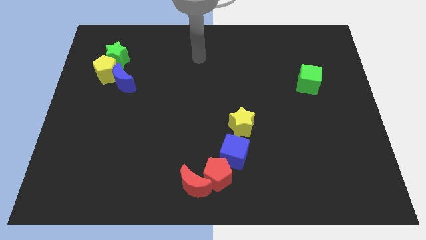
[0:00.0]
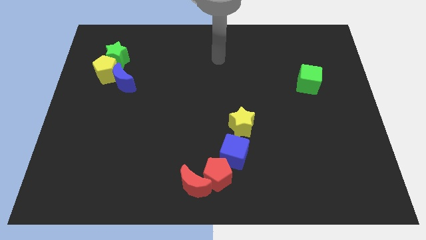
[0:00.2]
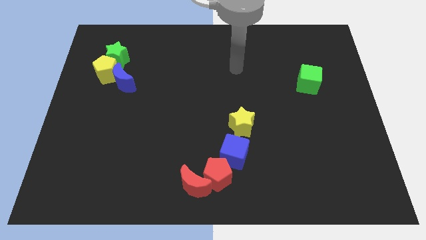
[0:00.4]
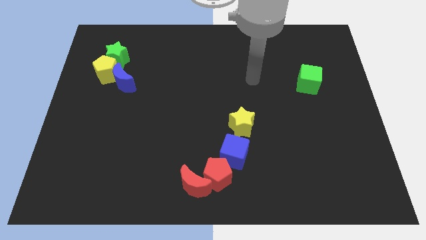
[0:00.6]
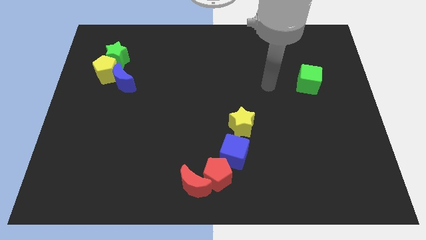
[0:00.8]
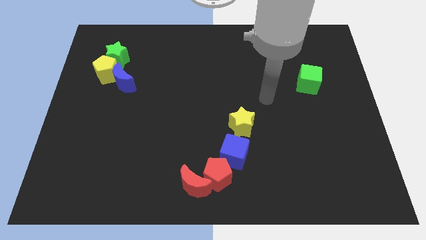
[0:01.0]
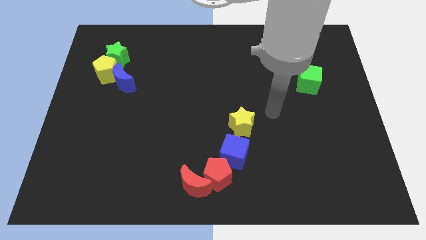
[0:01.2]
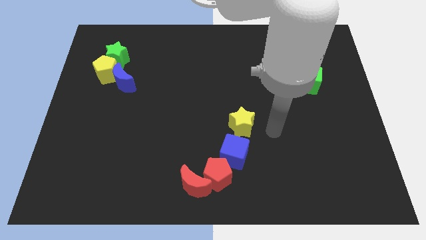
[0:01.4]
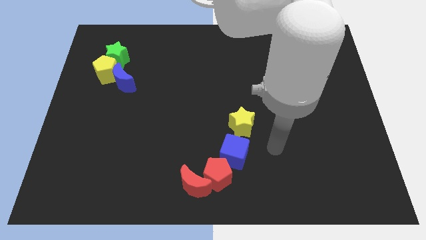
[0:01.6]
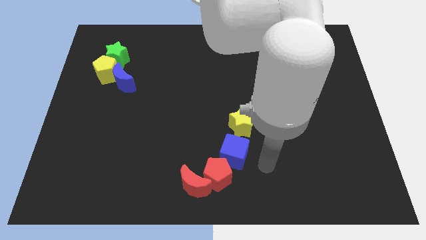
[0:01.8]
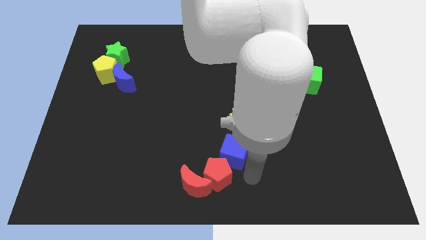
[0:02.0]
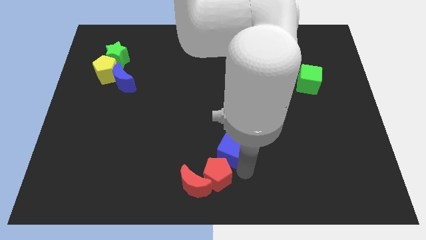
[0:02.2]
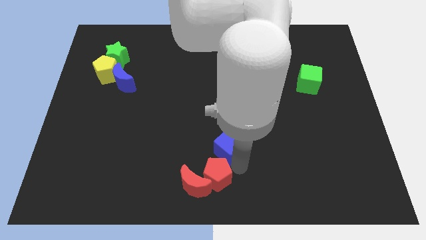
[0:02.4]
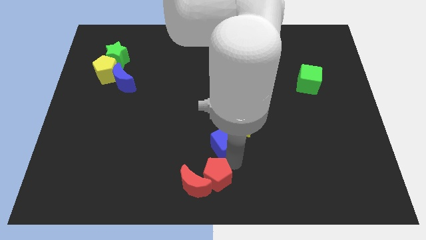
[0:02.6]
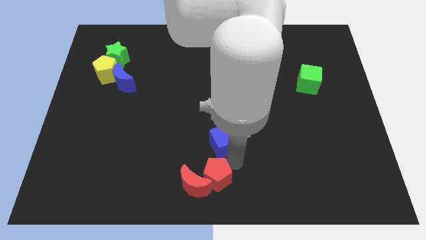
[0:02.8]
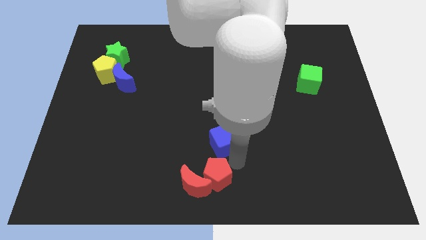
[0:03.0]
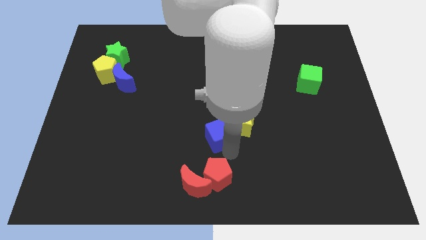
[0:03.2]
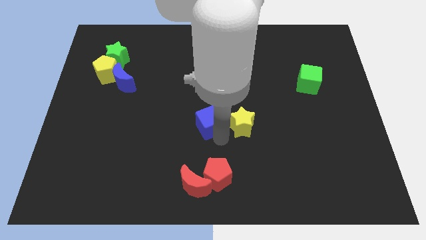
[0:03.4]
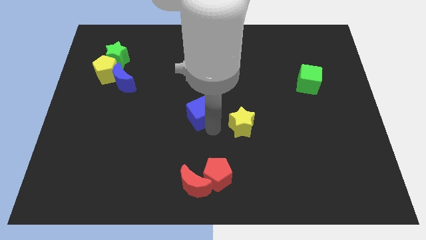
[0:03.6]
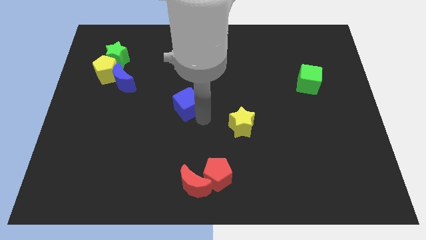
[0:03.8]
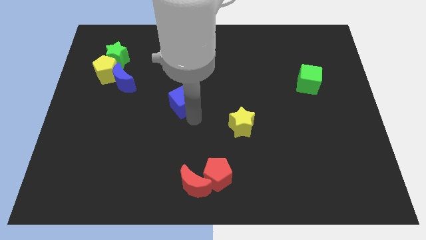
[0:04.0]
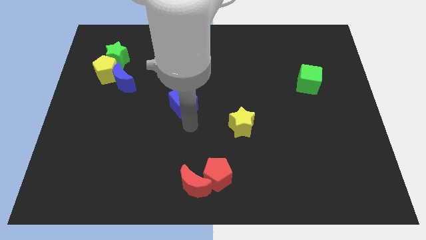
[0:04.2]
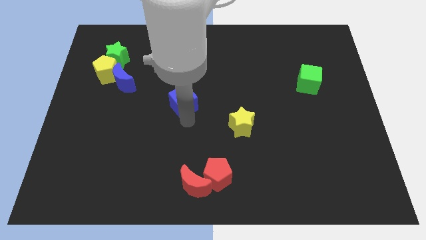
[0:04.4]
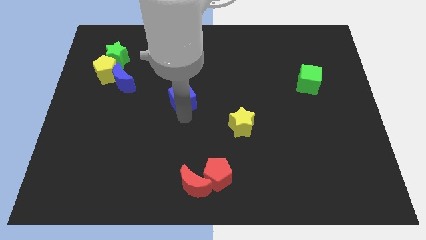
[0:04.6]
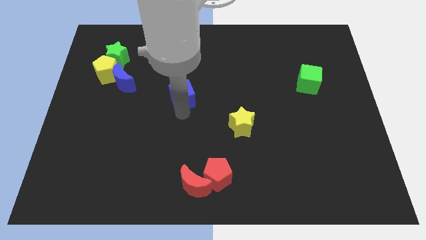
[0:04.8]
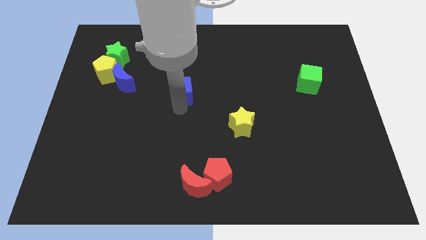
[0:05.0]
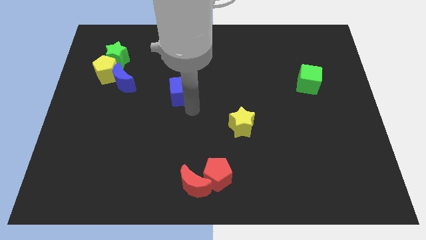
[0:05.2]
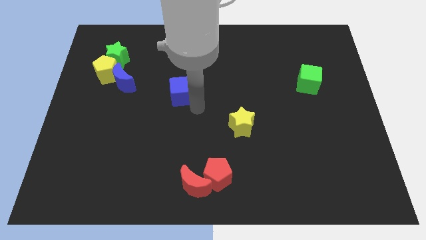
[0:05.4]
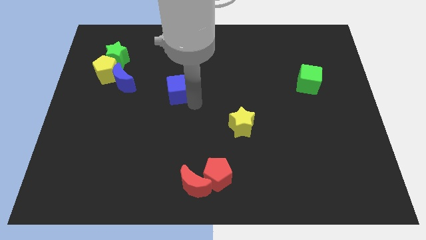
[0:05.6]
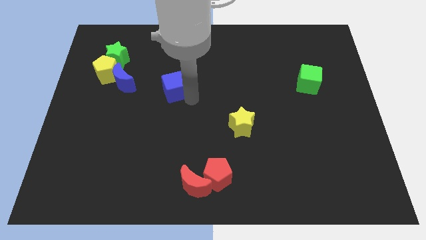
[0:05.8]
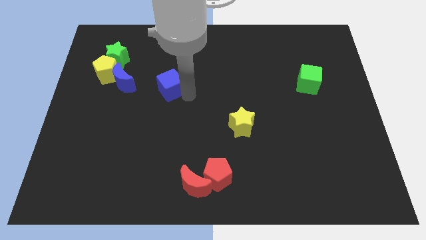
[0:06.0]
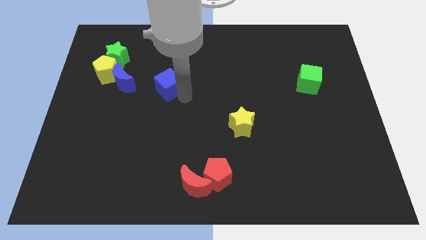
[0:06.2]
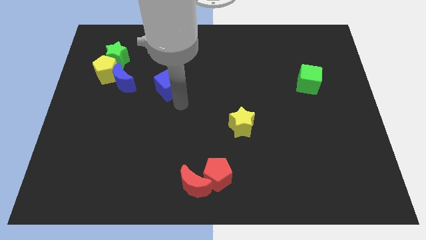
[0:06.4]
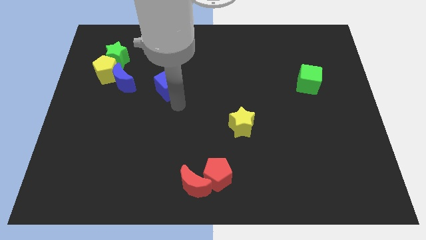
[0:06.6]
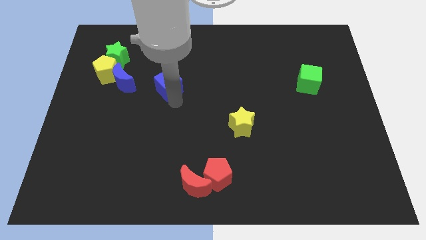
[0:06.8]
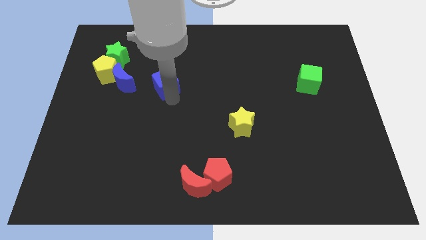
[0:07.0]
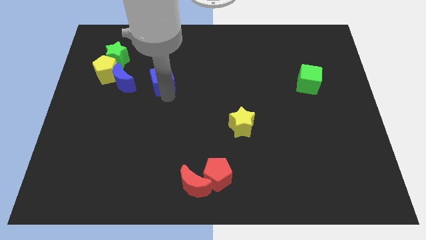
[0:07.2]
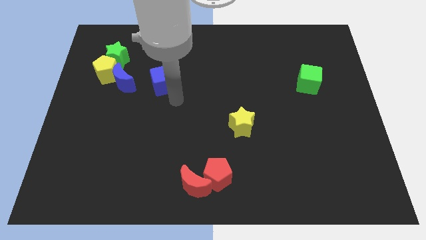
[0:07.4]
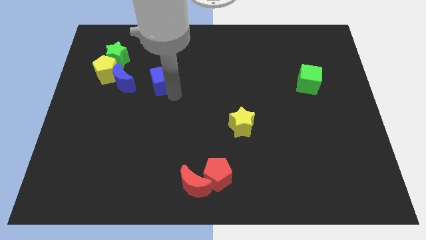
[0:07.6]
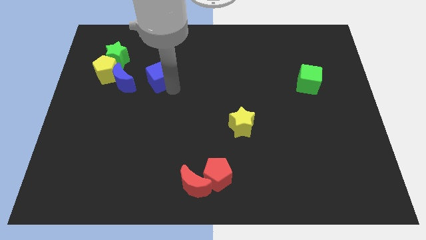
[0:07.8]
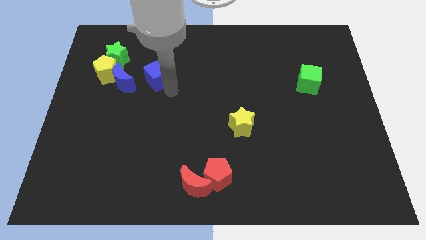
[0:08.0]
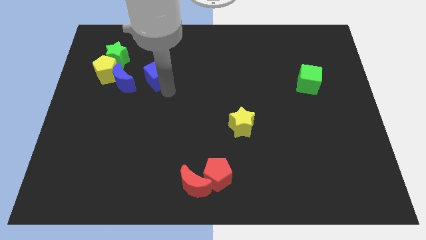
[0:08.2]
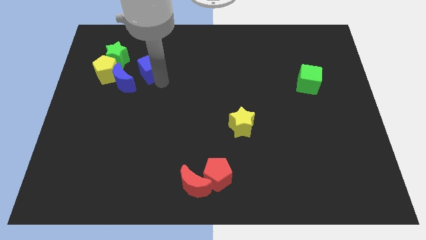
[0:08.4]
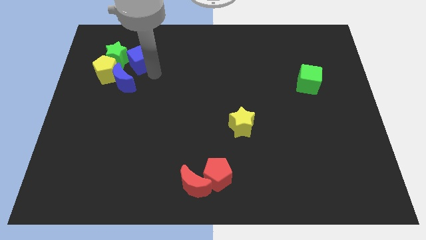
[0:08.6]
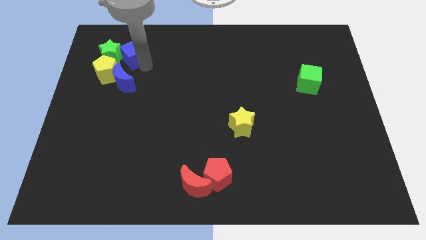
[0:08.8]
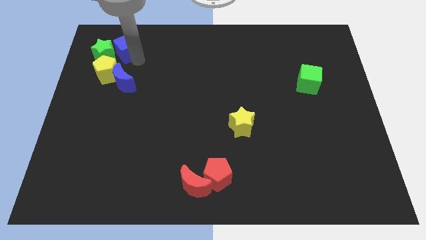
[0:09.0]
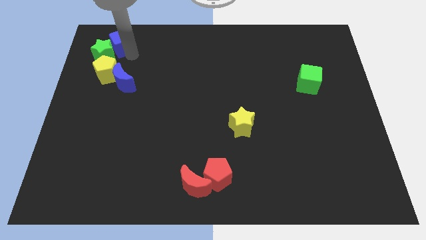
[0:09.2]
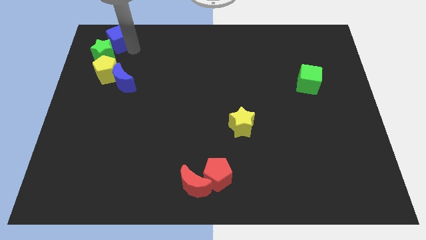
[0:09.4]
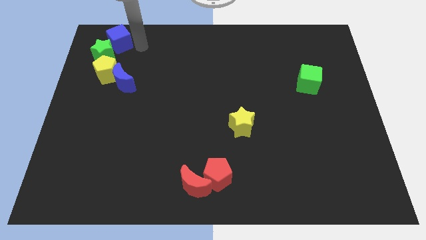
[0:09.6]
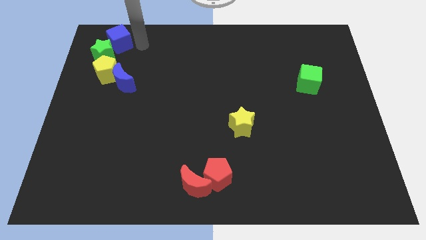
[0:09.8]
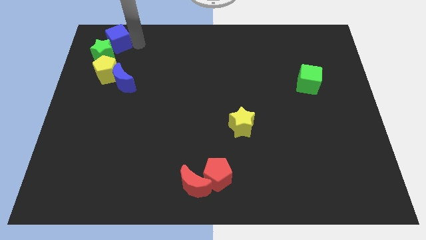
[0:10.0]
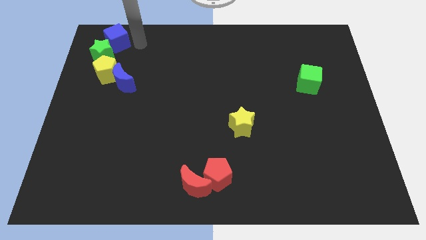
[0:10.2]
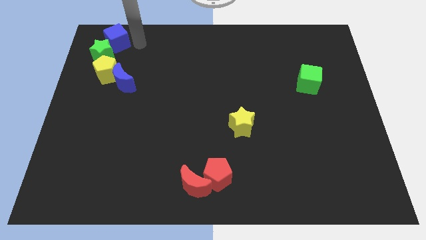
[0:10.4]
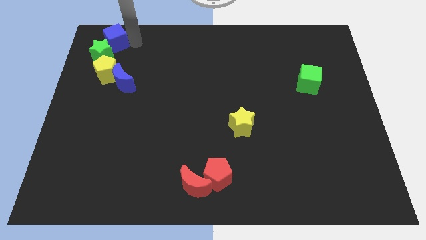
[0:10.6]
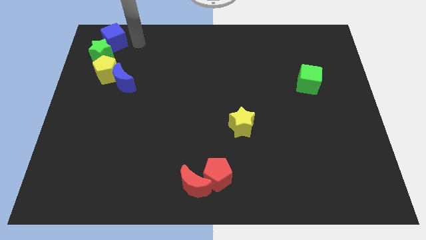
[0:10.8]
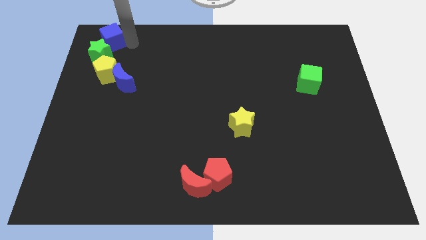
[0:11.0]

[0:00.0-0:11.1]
put the blue cube to the upper left corner

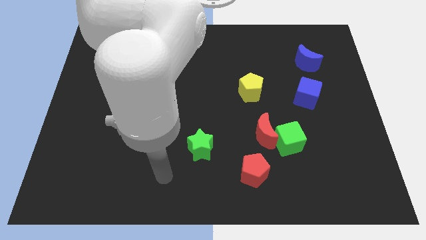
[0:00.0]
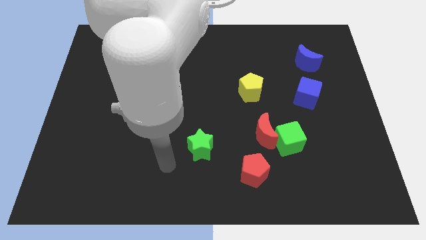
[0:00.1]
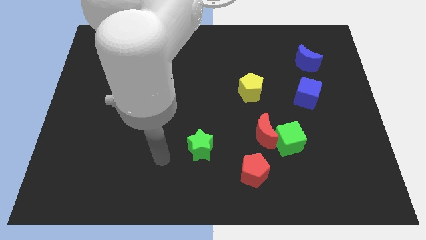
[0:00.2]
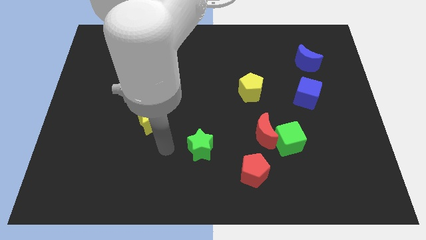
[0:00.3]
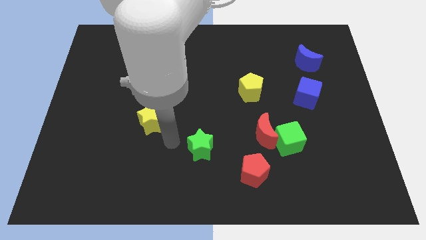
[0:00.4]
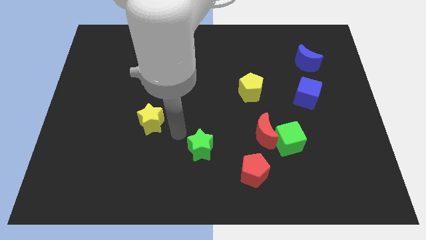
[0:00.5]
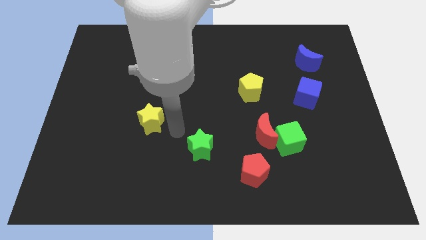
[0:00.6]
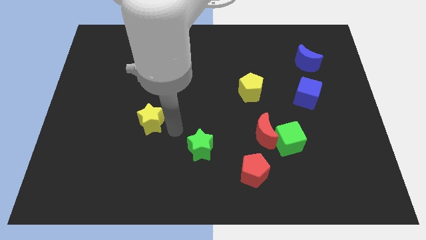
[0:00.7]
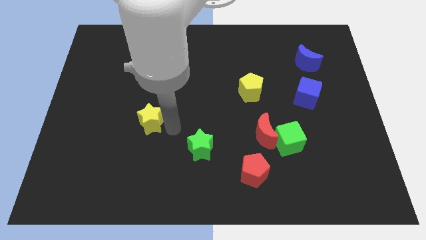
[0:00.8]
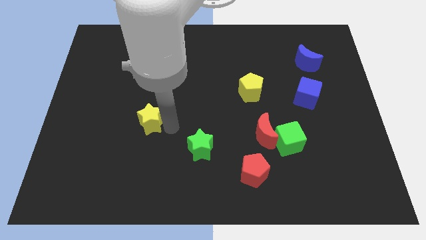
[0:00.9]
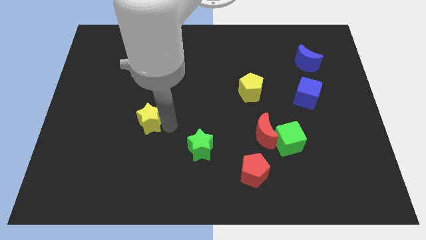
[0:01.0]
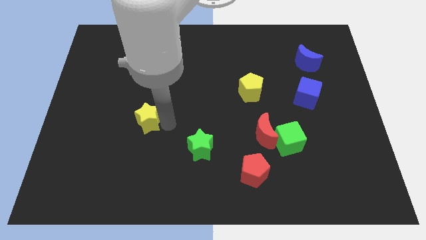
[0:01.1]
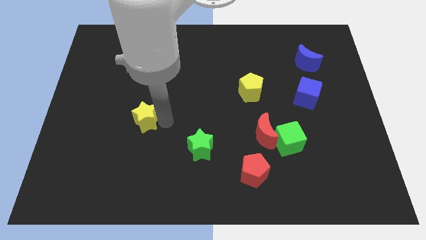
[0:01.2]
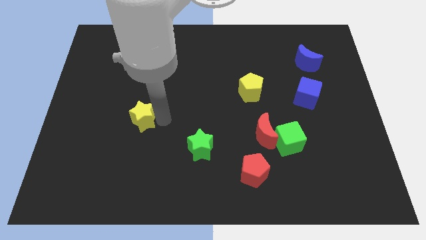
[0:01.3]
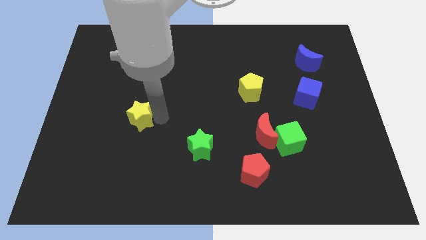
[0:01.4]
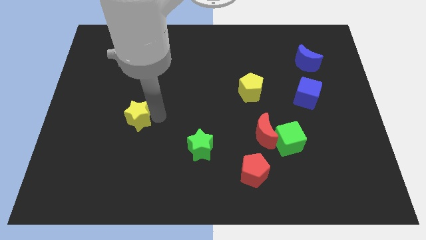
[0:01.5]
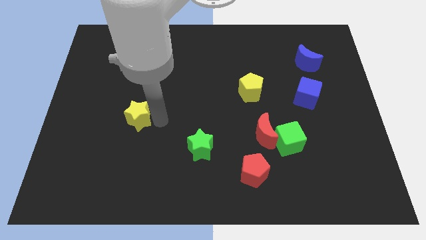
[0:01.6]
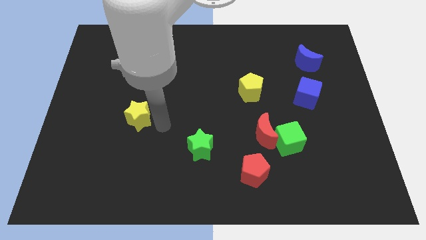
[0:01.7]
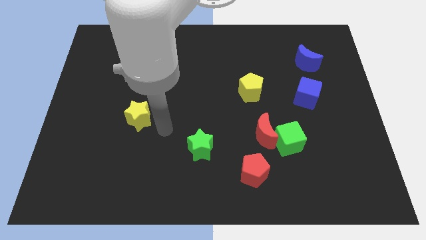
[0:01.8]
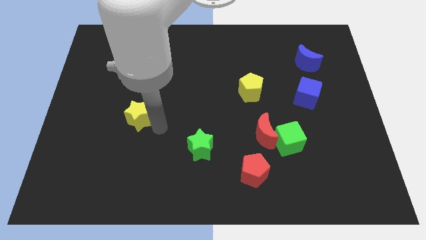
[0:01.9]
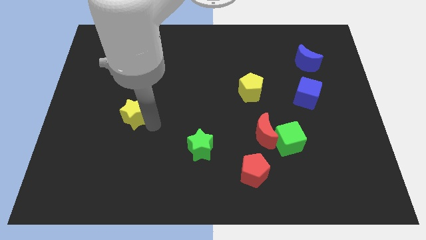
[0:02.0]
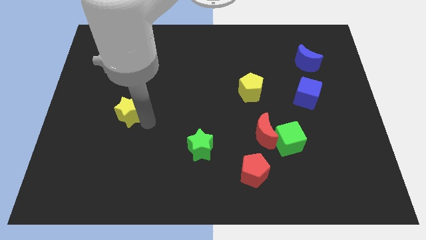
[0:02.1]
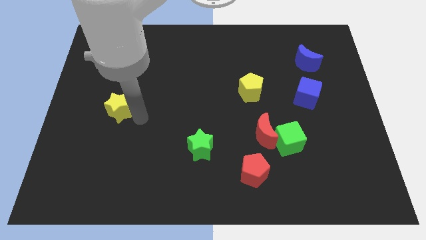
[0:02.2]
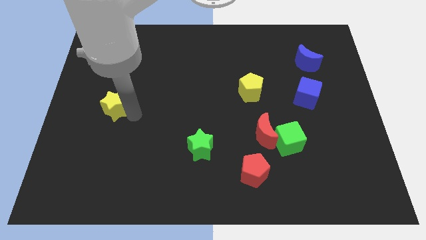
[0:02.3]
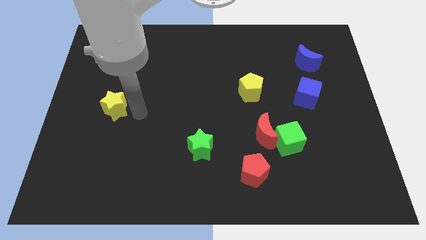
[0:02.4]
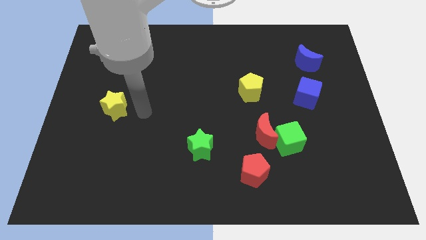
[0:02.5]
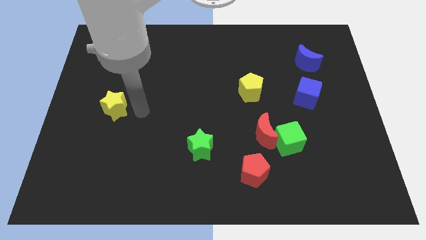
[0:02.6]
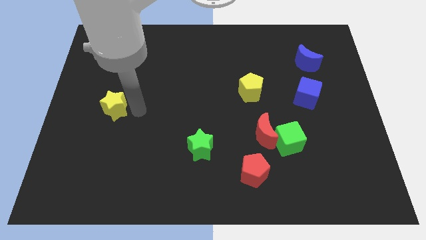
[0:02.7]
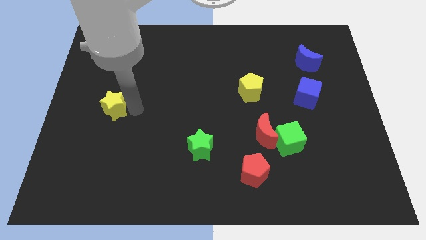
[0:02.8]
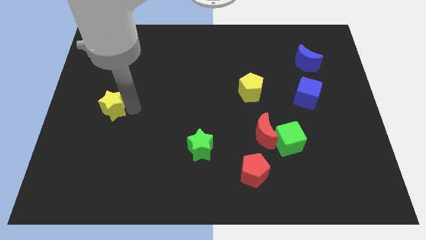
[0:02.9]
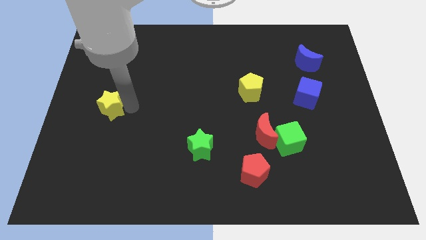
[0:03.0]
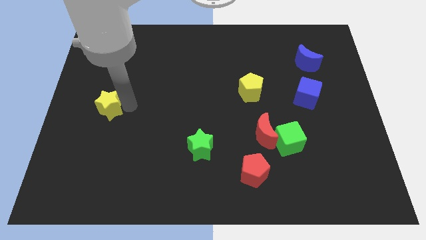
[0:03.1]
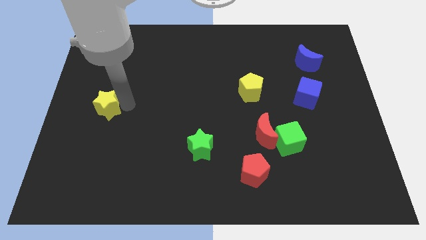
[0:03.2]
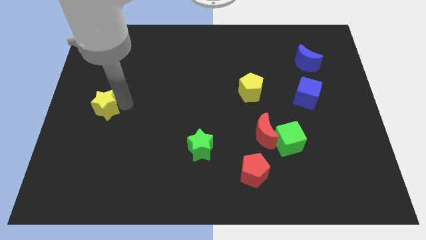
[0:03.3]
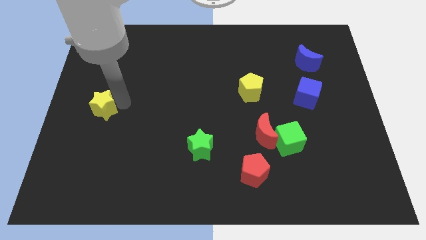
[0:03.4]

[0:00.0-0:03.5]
push the yellow star to the center left
